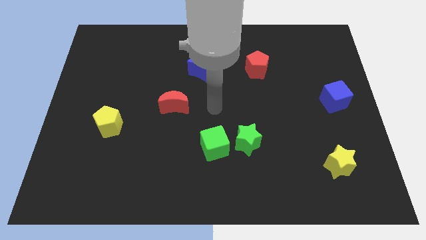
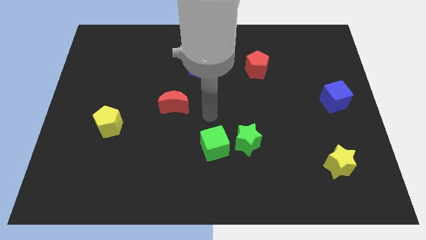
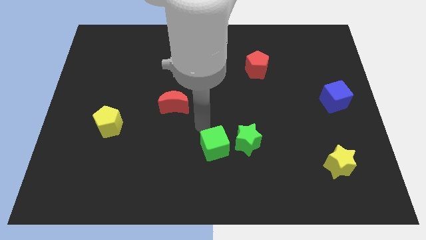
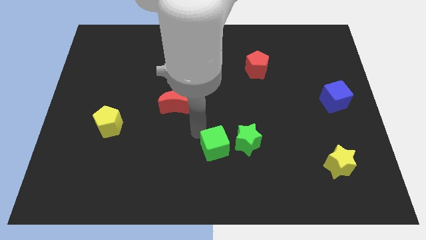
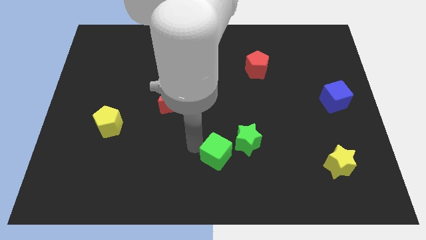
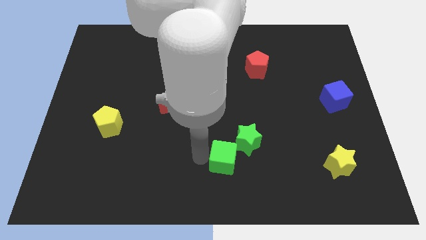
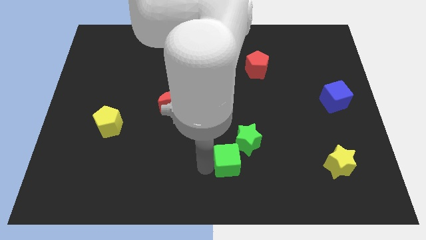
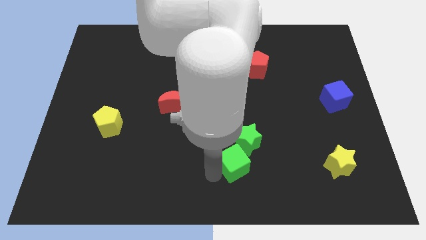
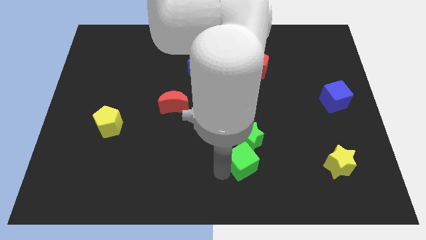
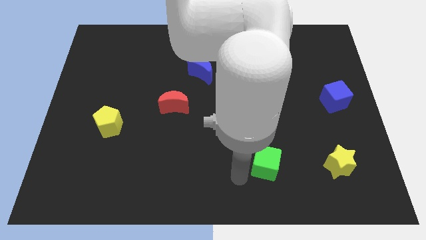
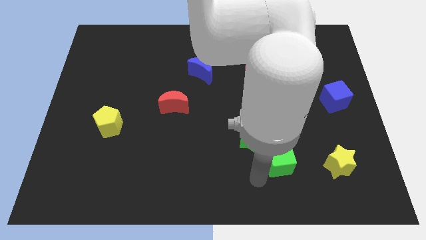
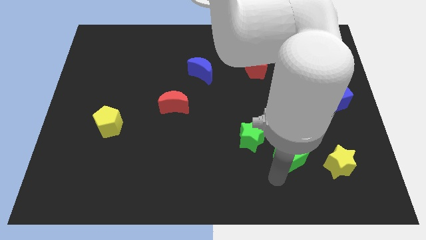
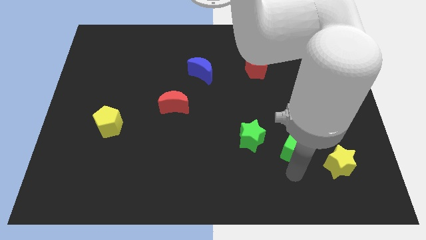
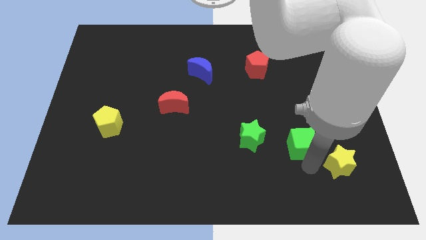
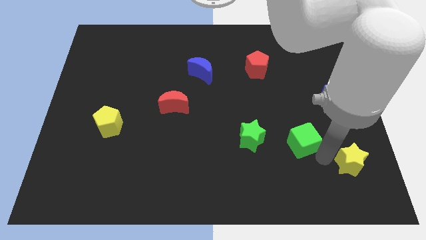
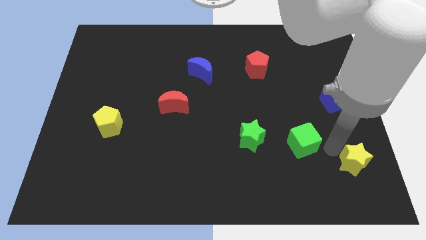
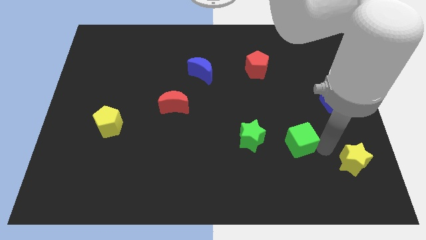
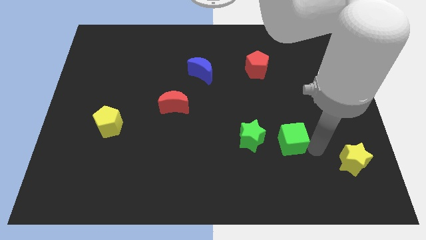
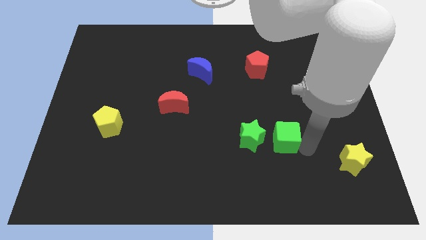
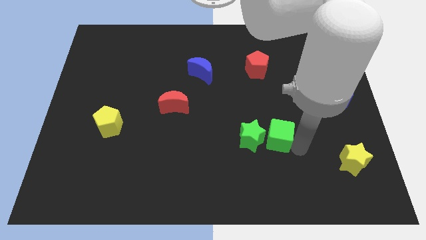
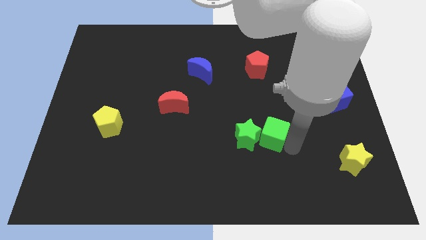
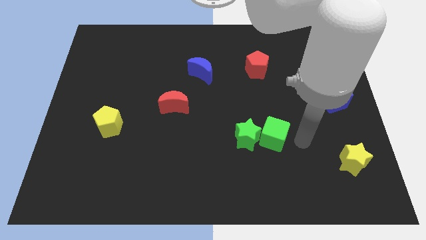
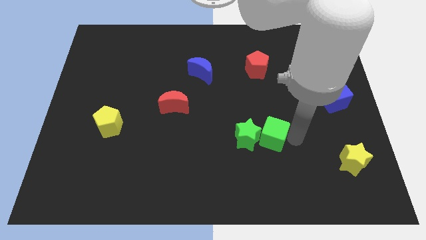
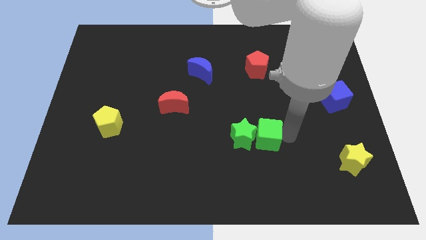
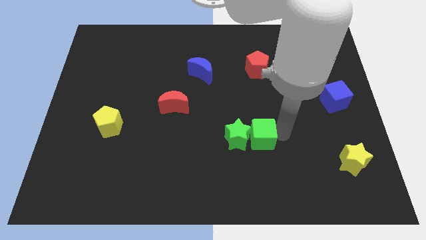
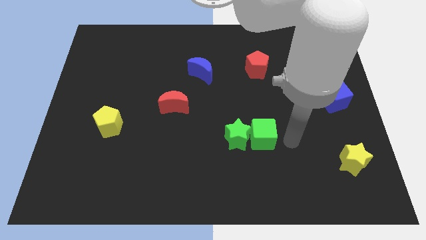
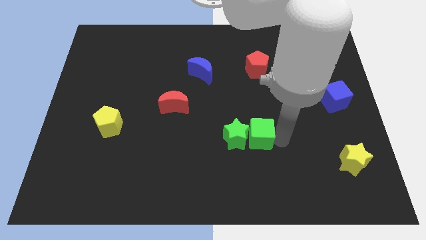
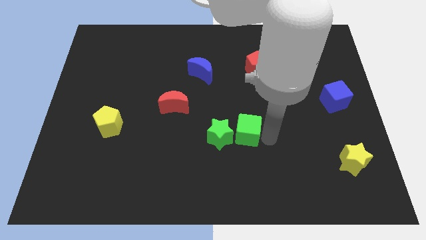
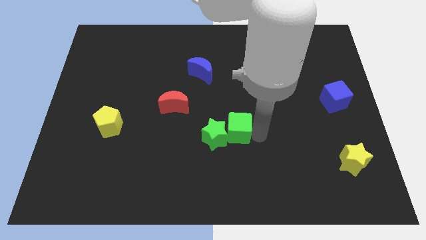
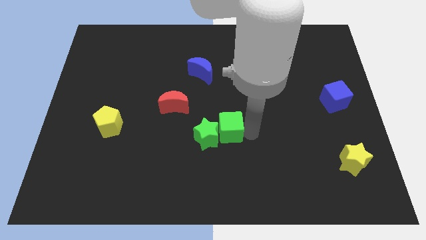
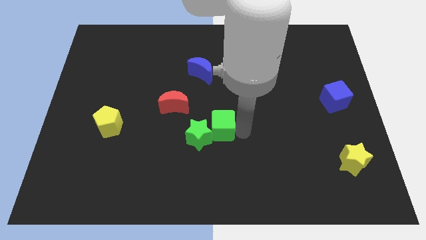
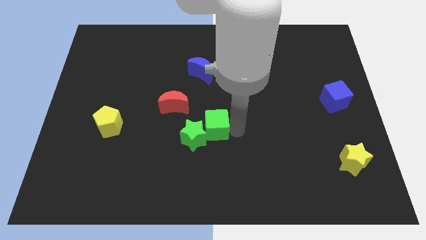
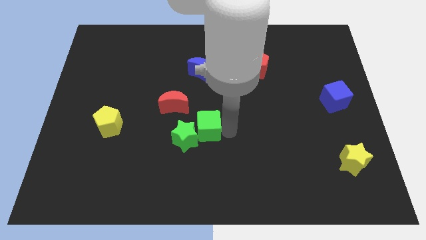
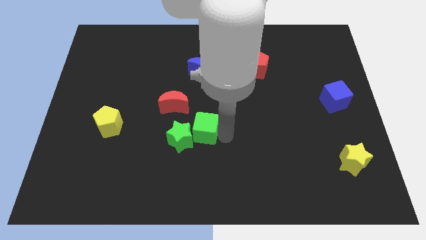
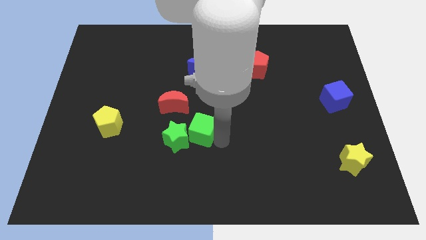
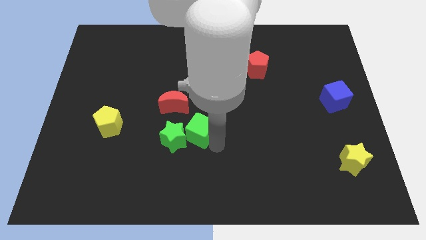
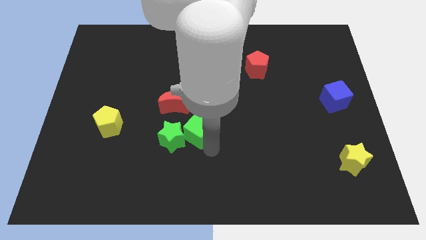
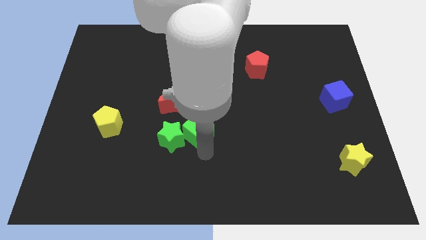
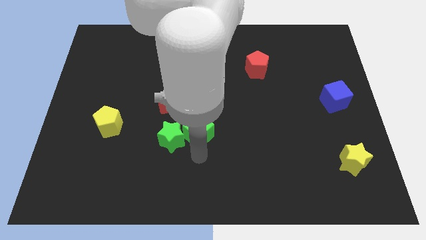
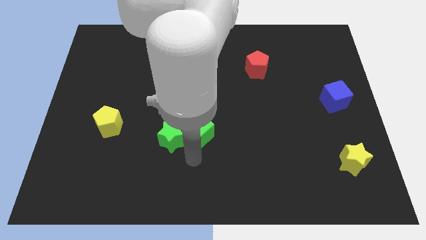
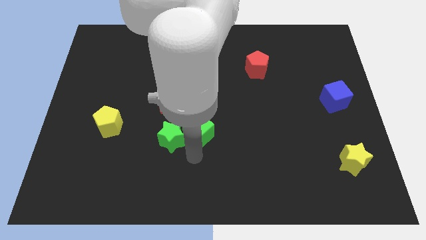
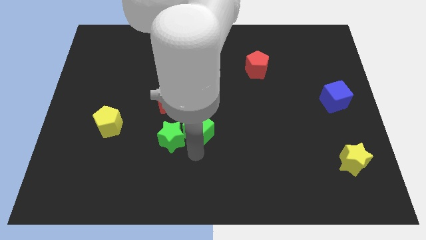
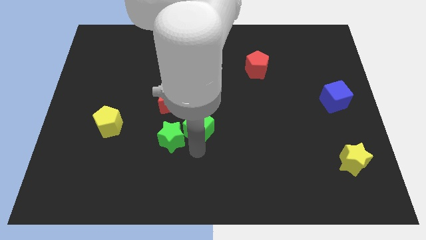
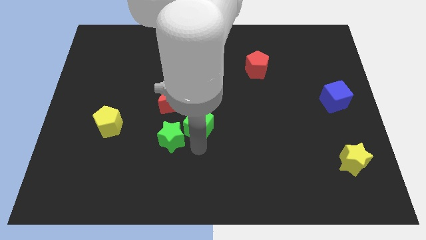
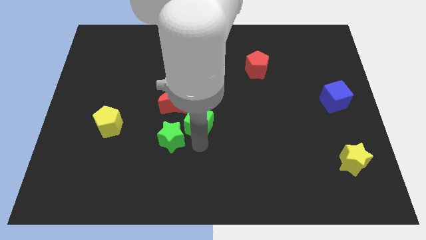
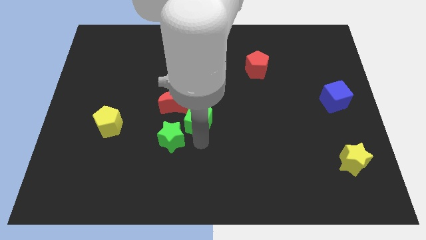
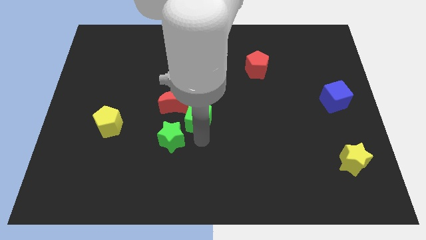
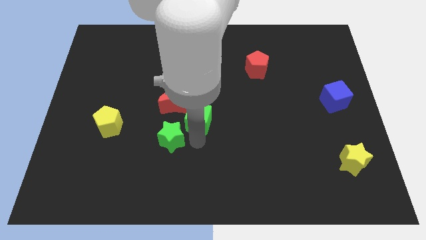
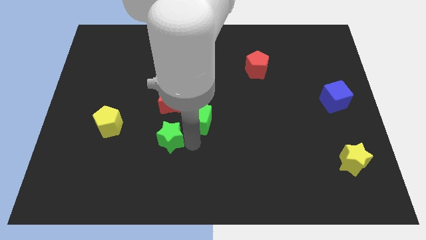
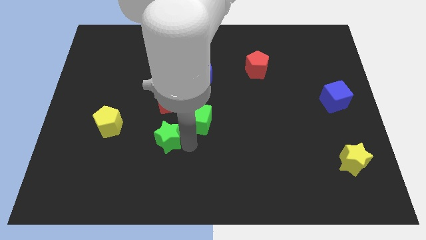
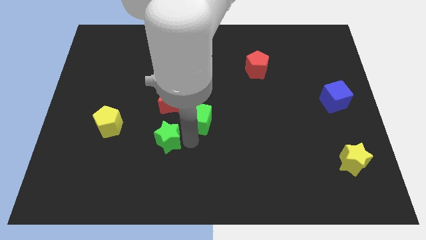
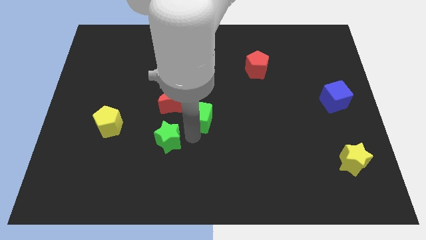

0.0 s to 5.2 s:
slide the green cube up somewhat

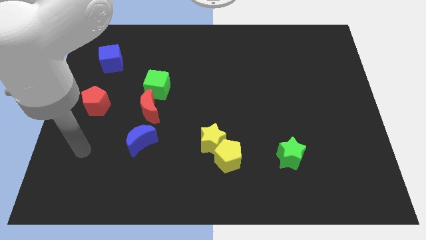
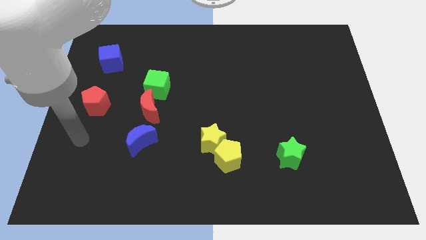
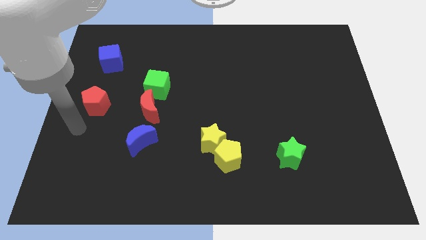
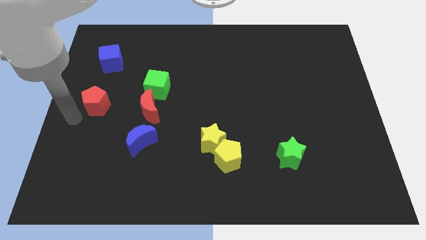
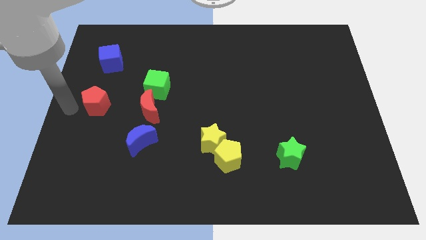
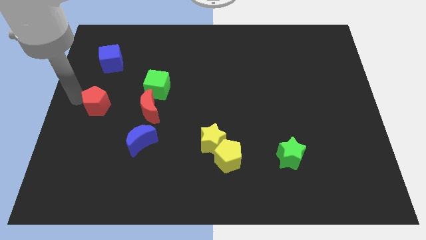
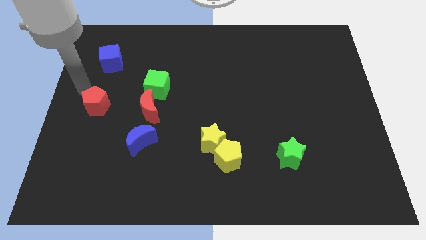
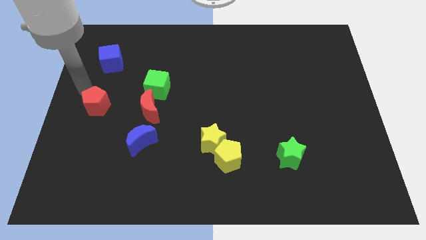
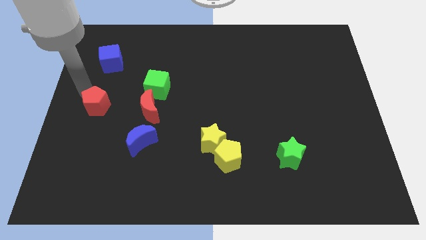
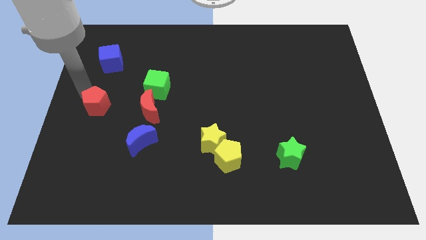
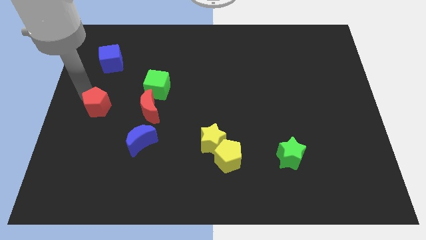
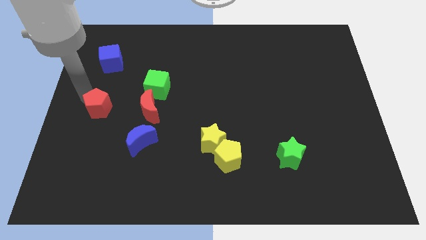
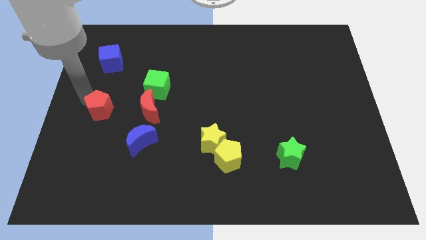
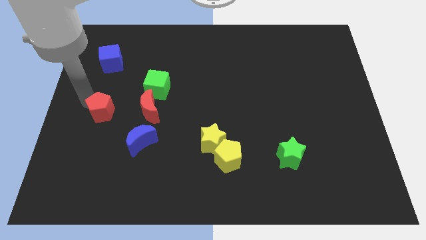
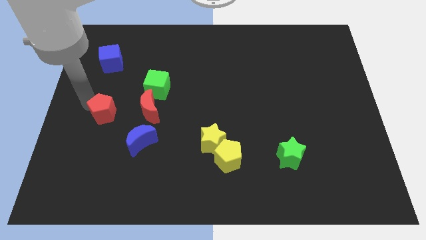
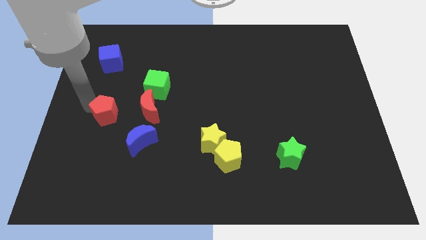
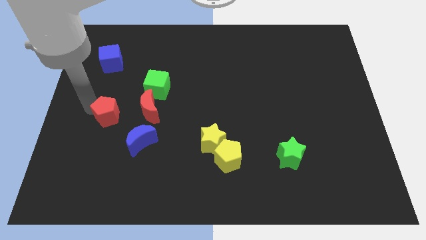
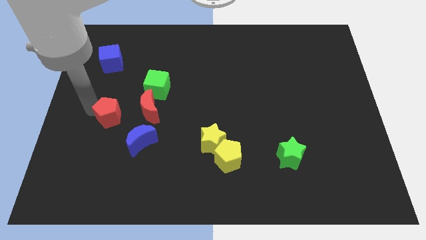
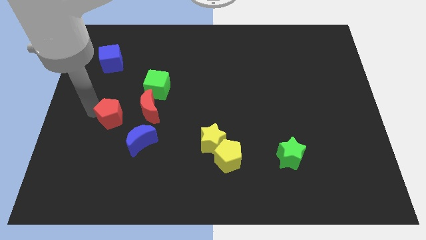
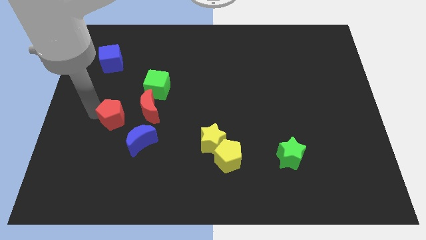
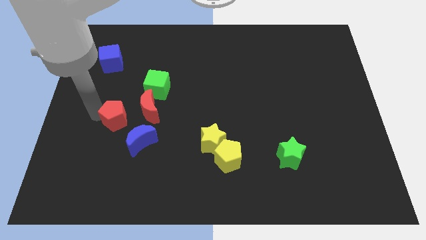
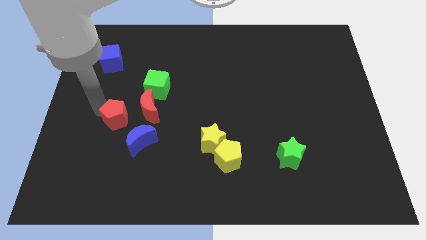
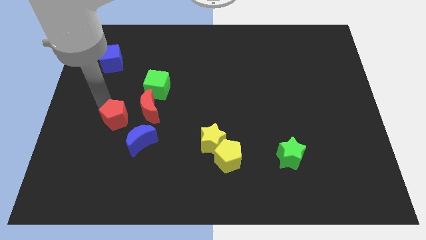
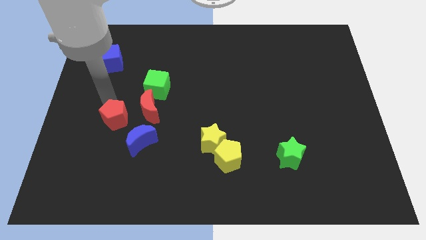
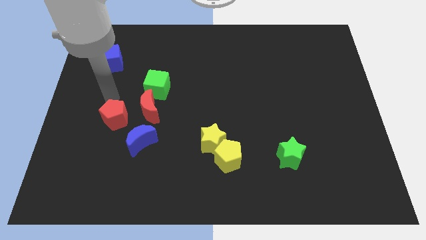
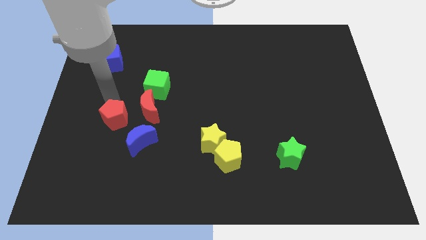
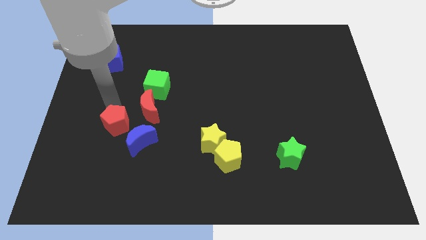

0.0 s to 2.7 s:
move the red pentagon downwards and then to the right a little bit

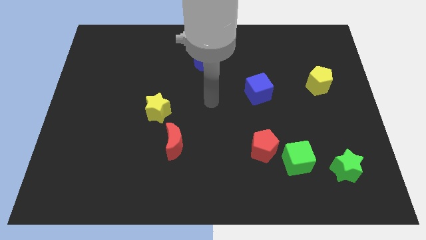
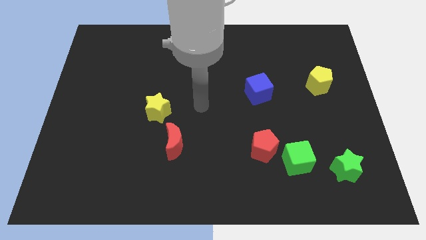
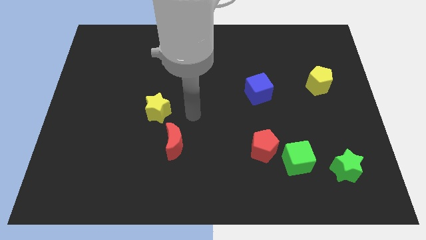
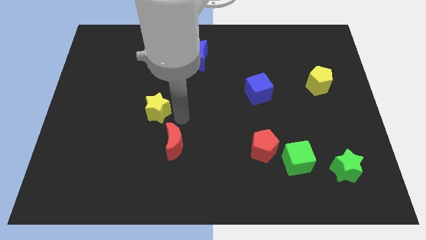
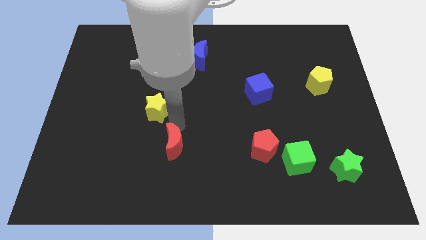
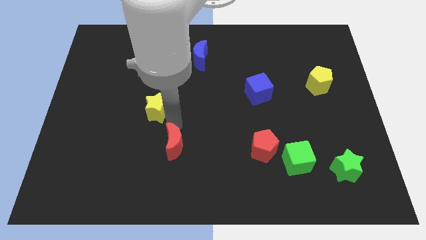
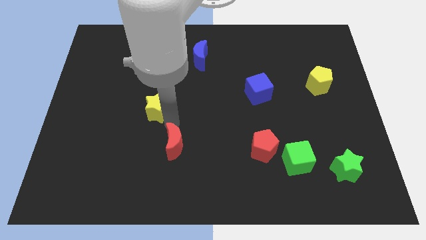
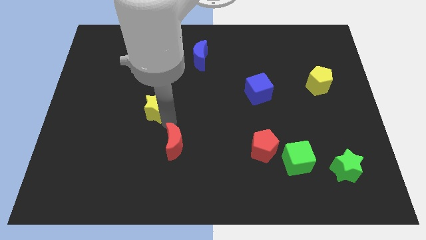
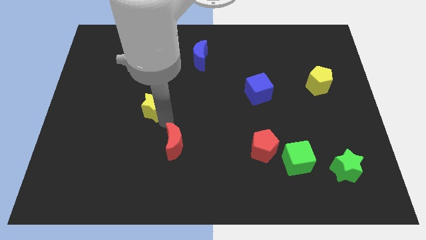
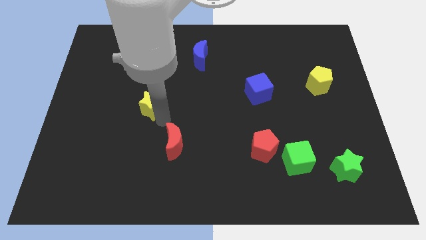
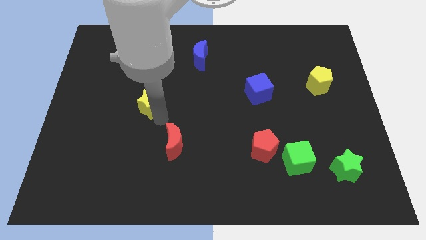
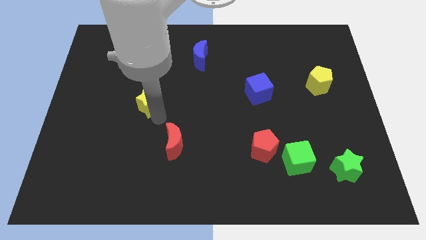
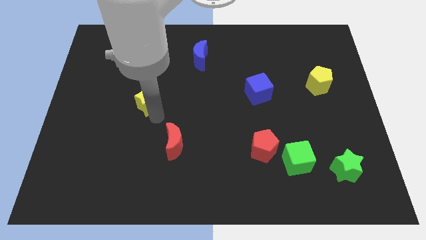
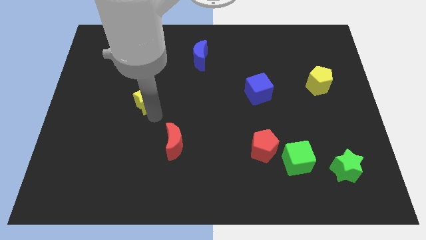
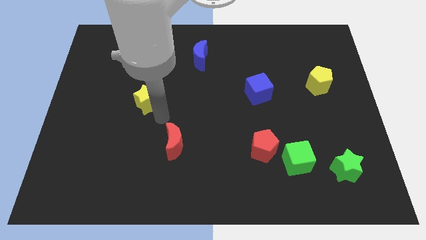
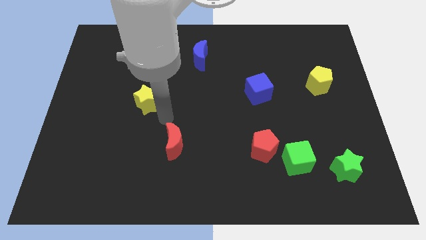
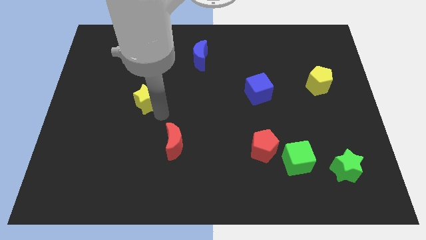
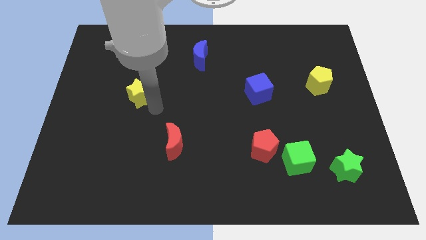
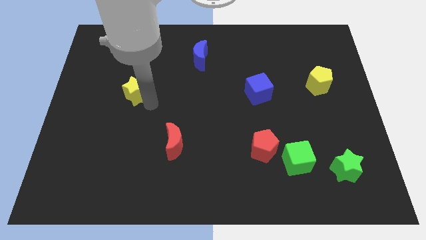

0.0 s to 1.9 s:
move the yellow star up and left a bit
